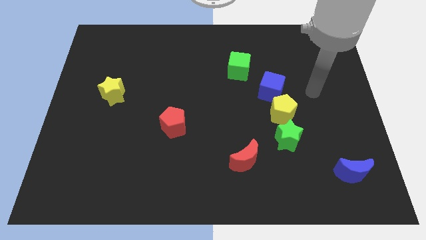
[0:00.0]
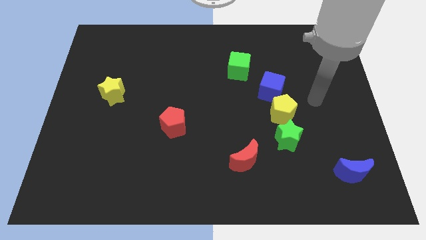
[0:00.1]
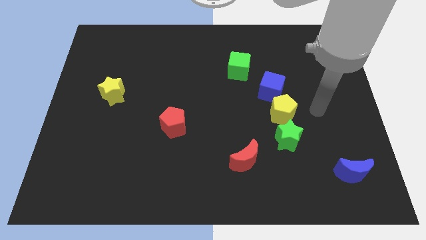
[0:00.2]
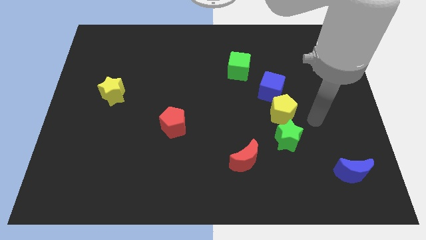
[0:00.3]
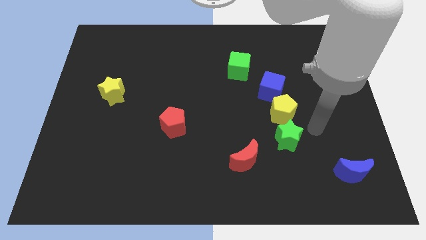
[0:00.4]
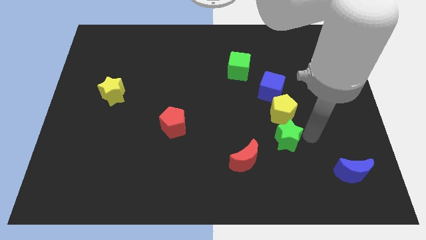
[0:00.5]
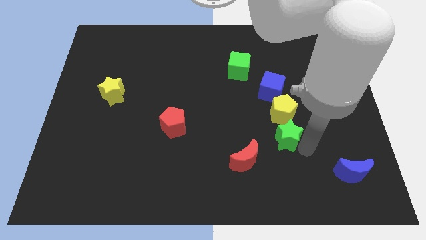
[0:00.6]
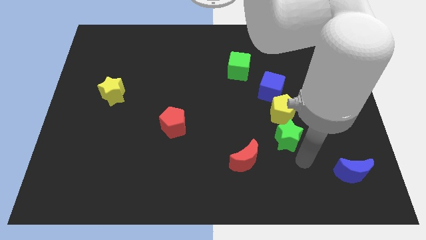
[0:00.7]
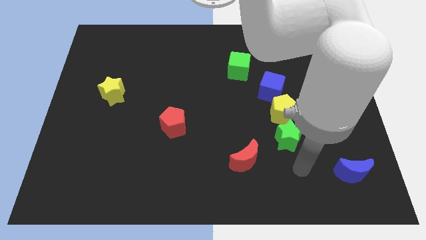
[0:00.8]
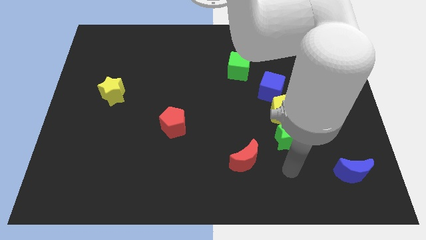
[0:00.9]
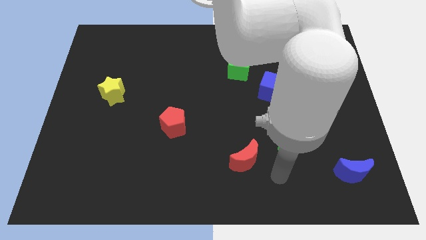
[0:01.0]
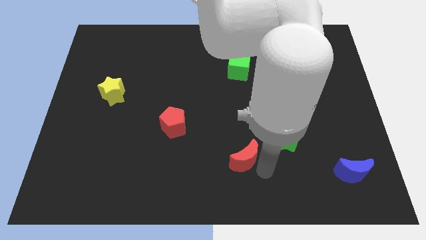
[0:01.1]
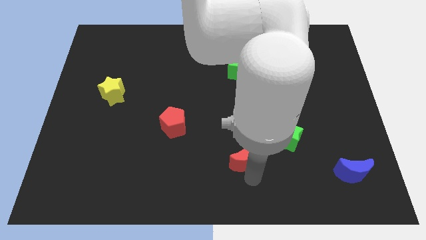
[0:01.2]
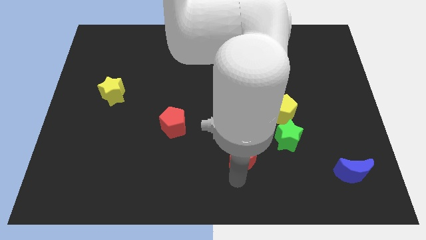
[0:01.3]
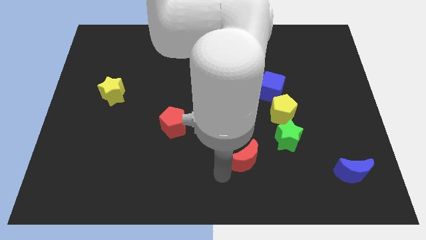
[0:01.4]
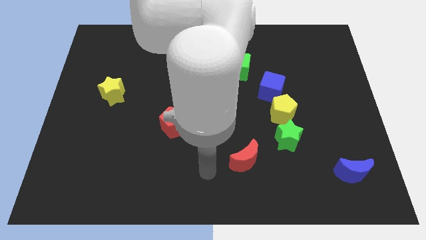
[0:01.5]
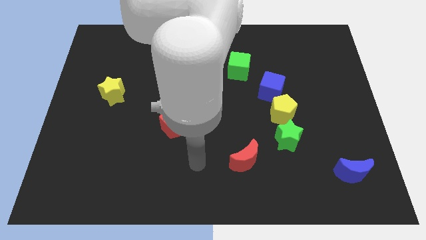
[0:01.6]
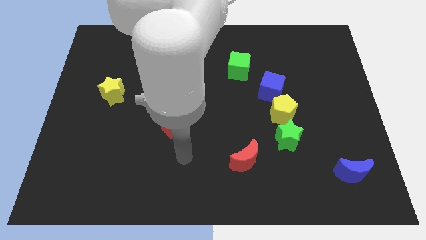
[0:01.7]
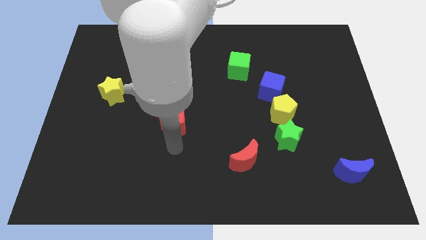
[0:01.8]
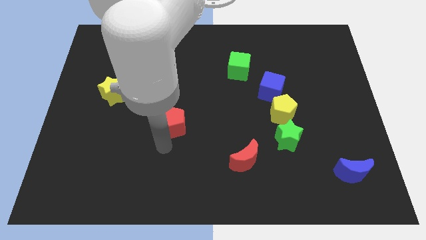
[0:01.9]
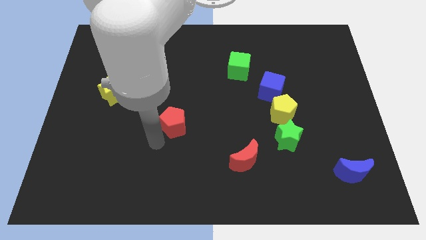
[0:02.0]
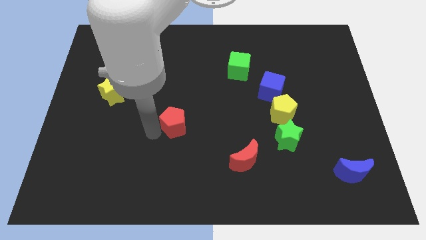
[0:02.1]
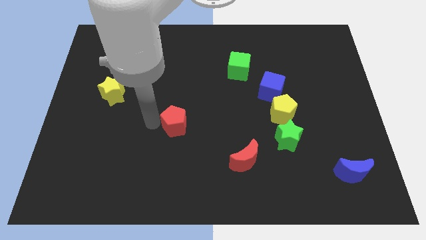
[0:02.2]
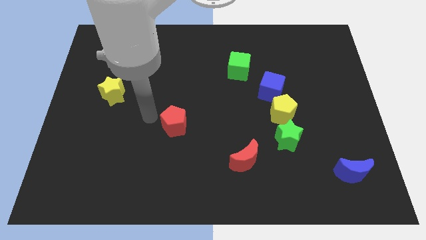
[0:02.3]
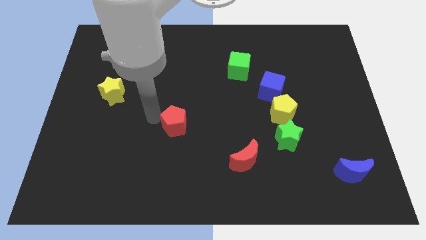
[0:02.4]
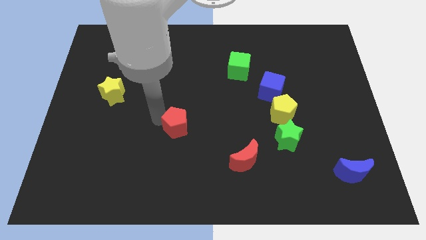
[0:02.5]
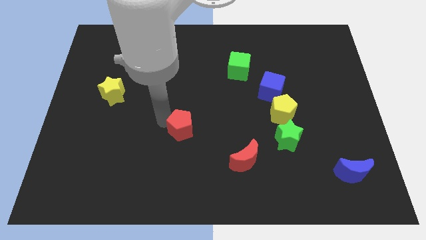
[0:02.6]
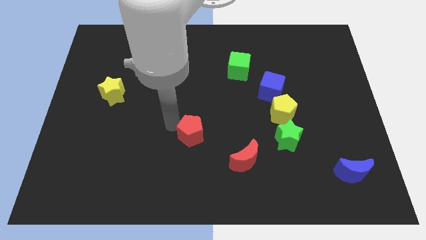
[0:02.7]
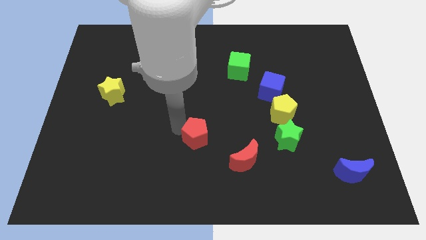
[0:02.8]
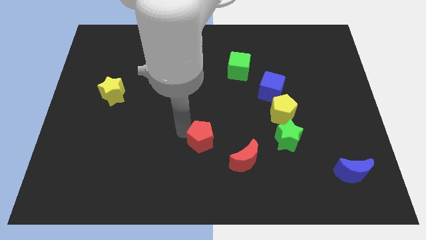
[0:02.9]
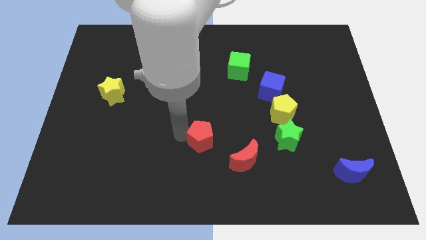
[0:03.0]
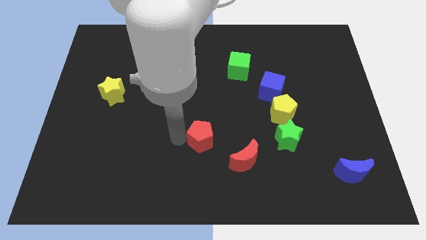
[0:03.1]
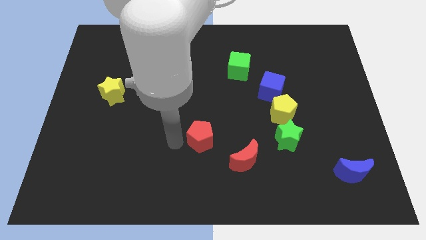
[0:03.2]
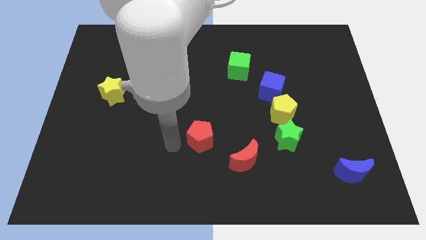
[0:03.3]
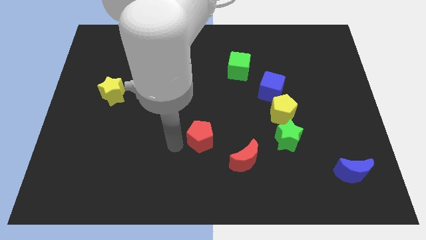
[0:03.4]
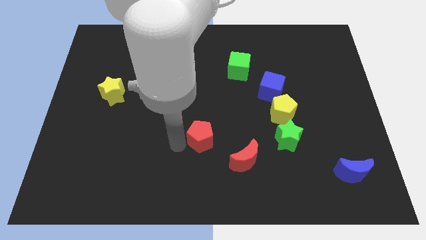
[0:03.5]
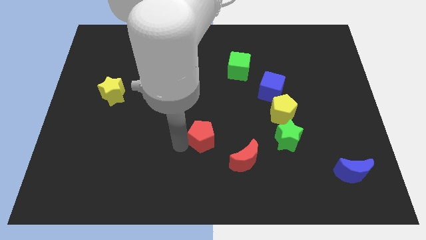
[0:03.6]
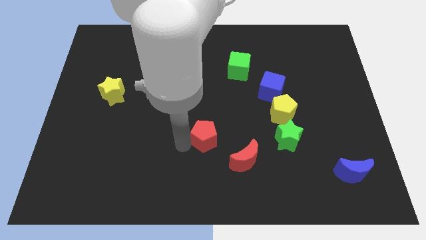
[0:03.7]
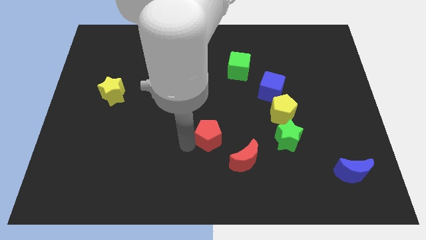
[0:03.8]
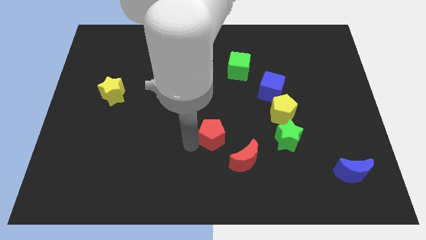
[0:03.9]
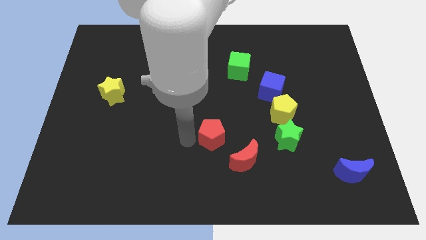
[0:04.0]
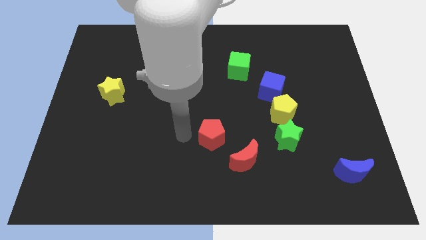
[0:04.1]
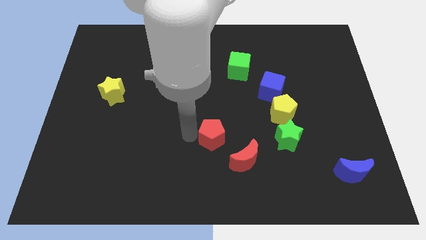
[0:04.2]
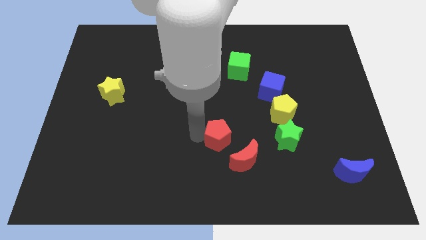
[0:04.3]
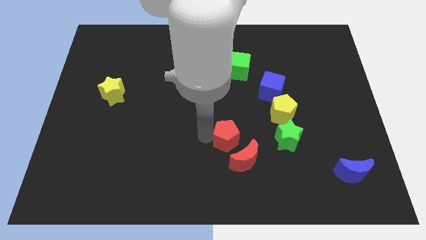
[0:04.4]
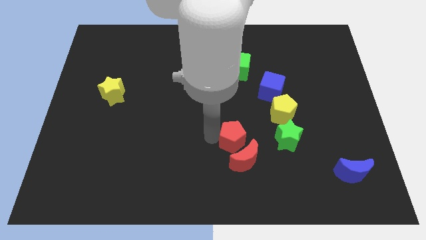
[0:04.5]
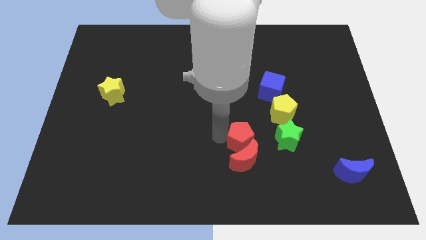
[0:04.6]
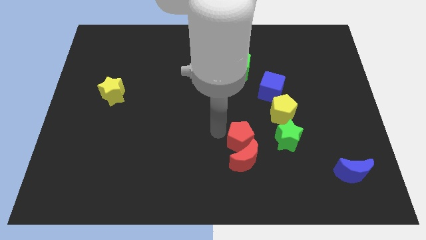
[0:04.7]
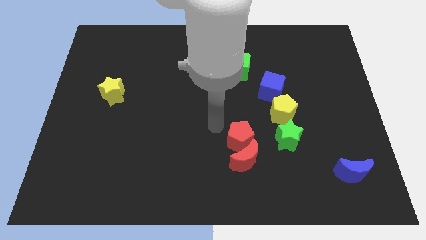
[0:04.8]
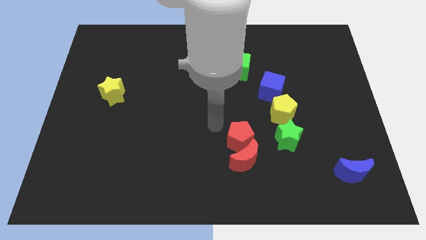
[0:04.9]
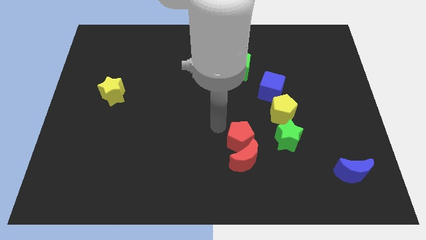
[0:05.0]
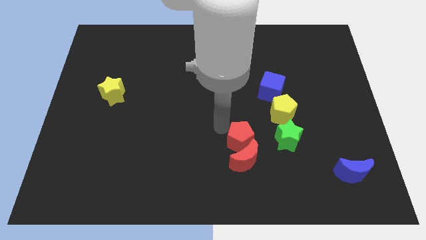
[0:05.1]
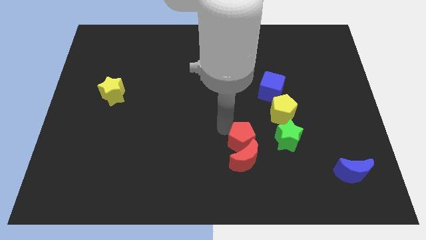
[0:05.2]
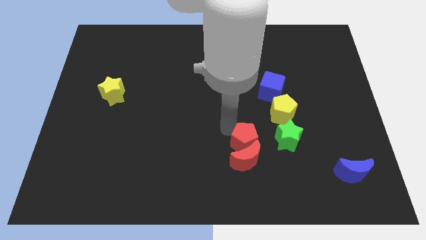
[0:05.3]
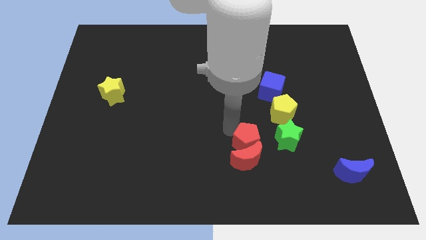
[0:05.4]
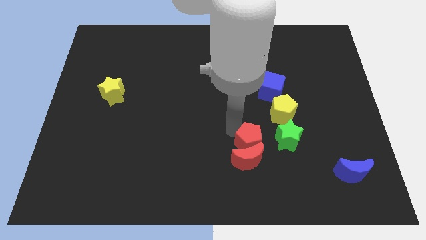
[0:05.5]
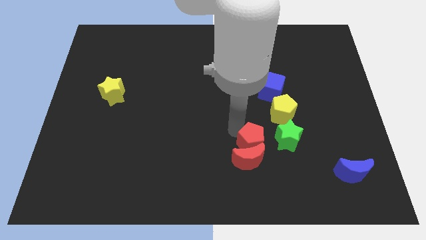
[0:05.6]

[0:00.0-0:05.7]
put the red pentagon to the bottom left of the green star

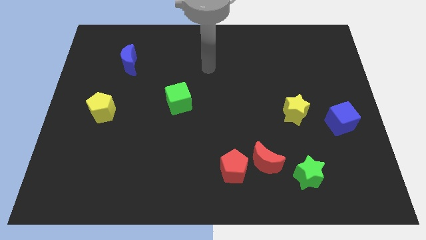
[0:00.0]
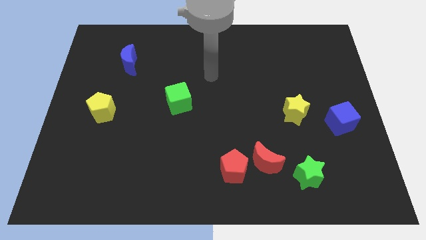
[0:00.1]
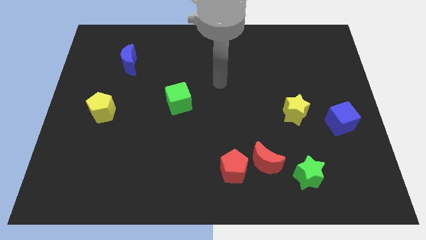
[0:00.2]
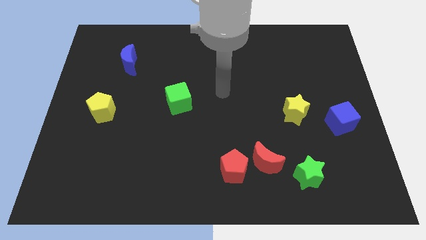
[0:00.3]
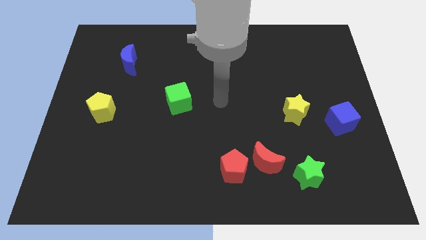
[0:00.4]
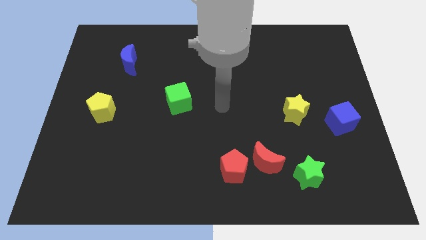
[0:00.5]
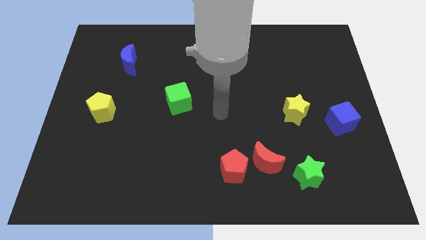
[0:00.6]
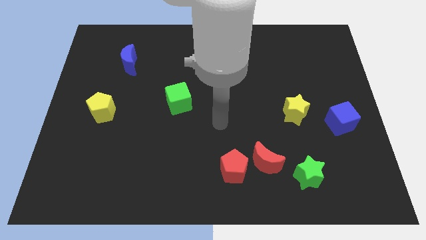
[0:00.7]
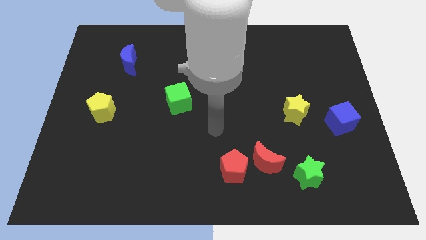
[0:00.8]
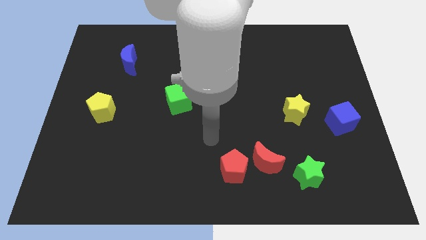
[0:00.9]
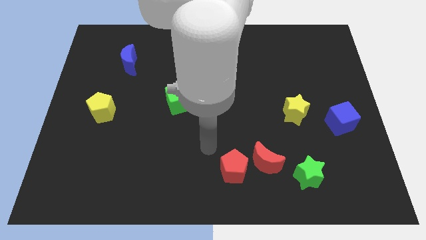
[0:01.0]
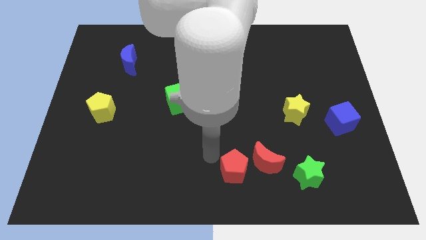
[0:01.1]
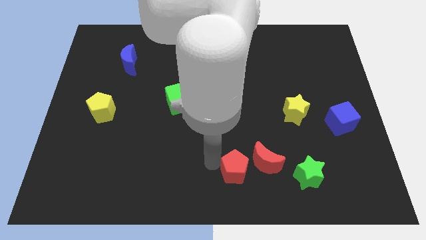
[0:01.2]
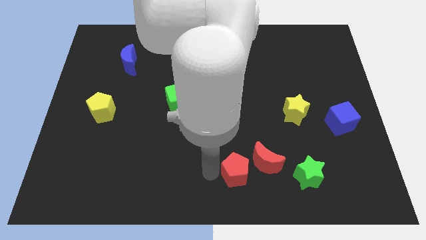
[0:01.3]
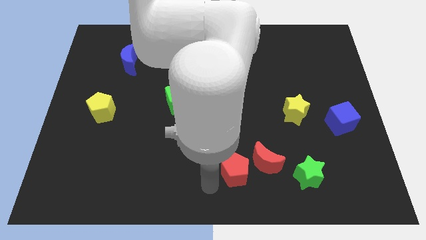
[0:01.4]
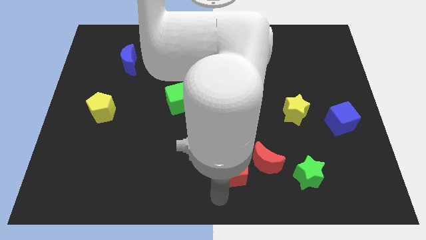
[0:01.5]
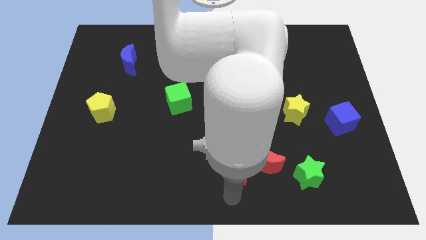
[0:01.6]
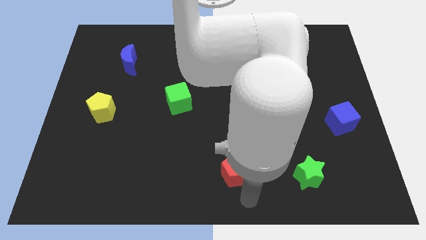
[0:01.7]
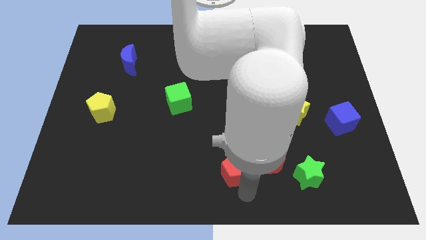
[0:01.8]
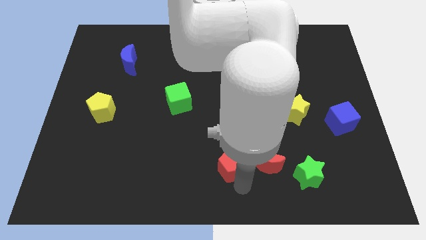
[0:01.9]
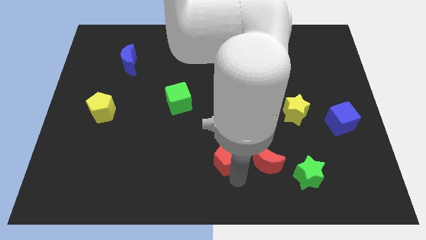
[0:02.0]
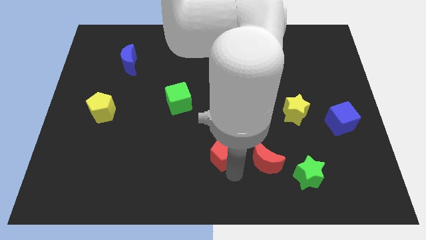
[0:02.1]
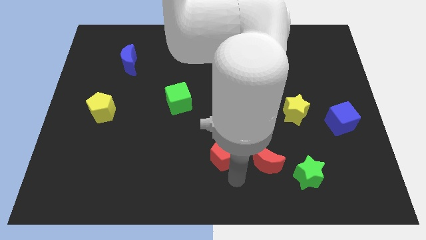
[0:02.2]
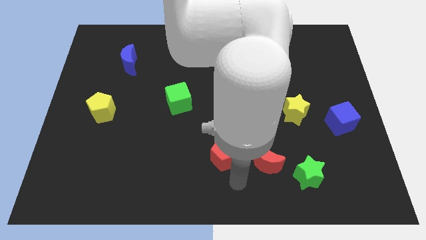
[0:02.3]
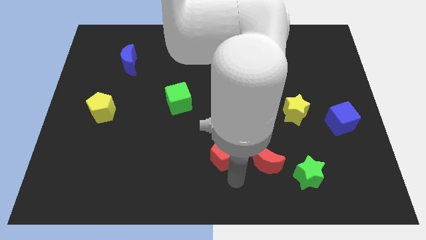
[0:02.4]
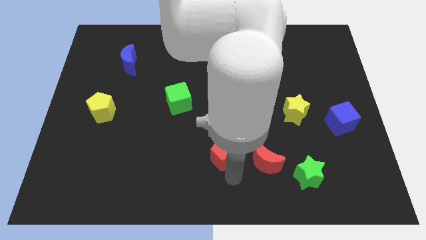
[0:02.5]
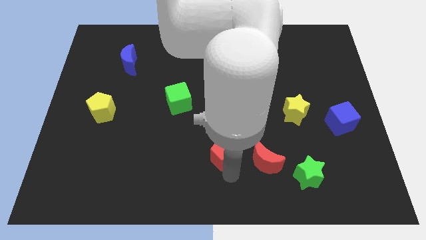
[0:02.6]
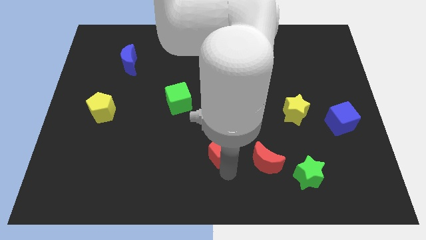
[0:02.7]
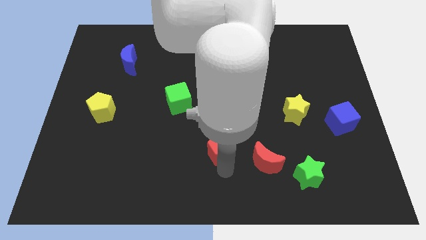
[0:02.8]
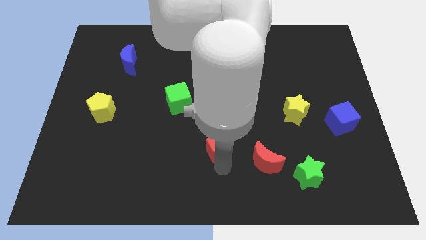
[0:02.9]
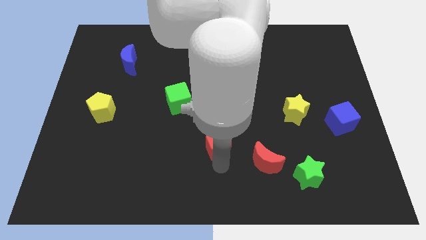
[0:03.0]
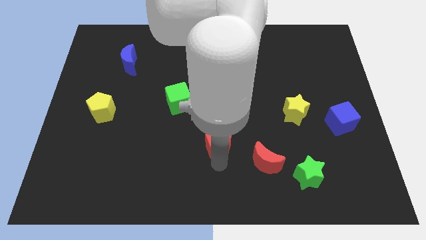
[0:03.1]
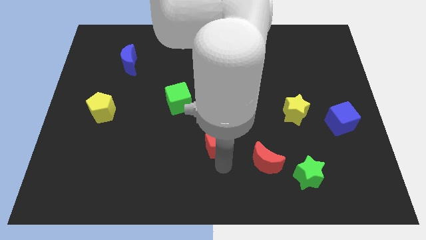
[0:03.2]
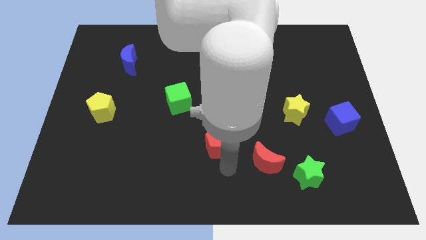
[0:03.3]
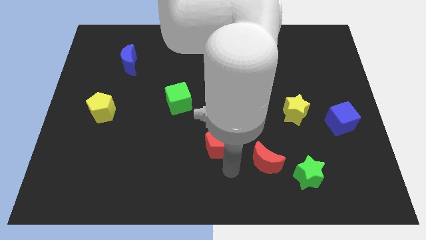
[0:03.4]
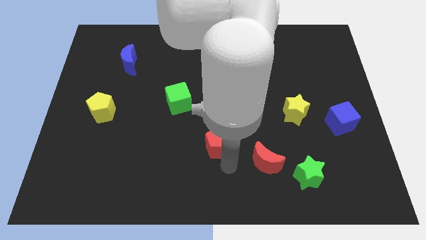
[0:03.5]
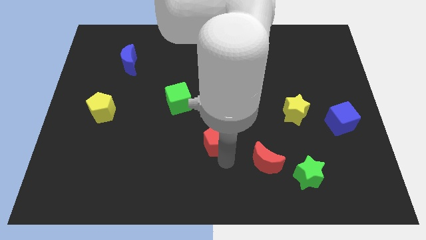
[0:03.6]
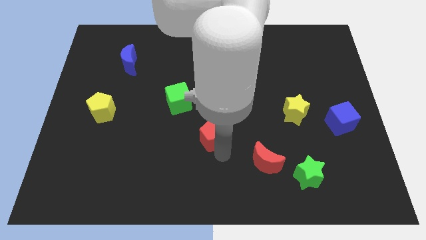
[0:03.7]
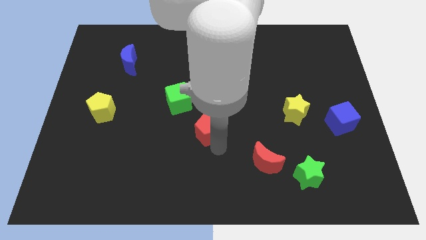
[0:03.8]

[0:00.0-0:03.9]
slide the red pentagon to the bottom right side of the green cube
